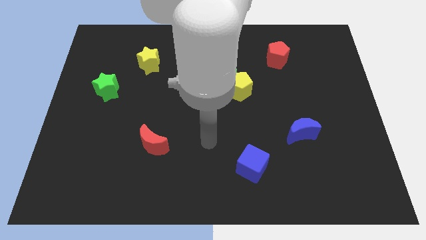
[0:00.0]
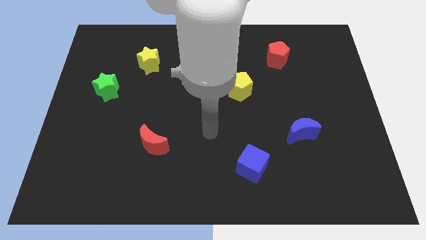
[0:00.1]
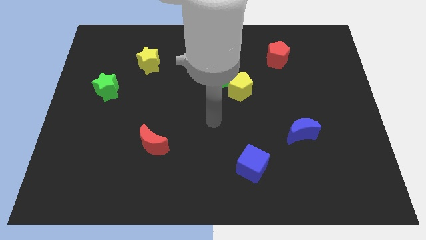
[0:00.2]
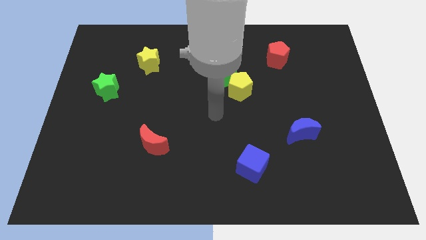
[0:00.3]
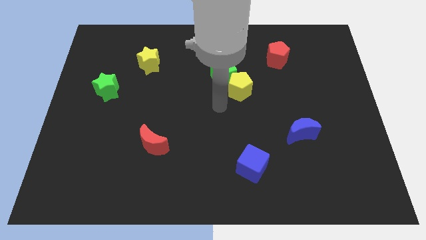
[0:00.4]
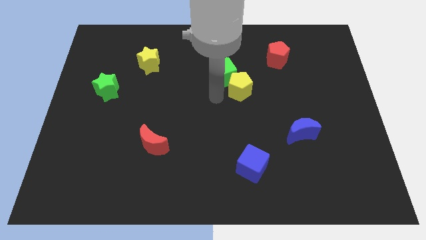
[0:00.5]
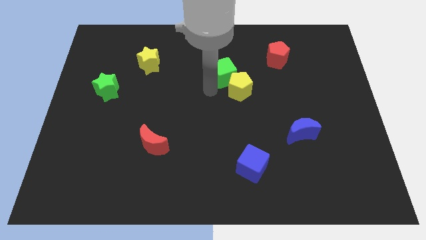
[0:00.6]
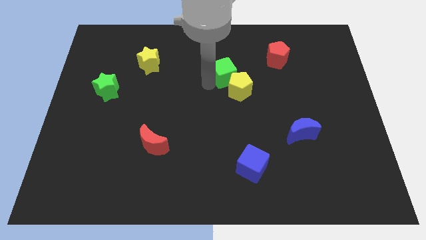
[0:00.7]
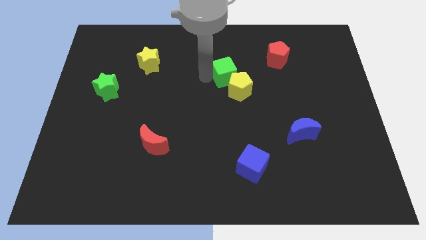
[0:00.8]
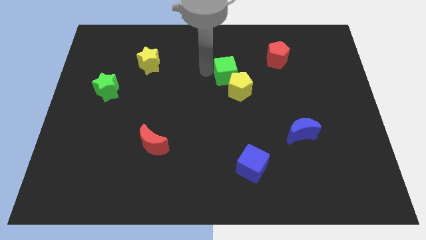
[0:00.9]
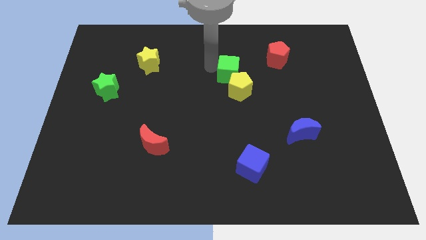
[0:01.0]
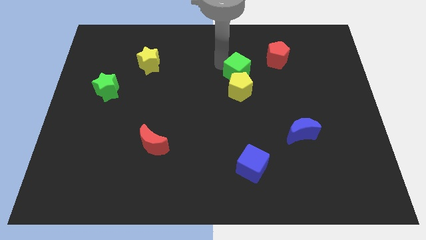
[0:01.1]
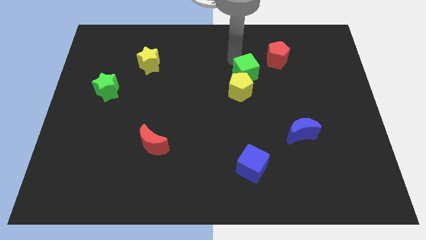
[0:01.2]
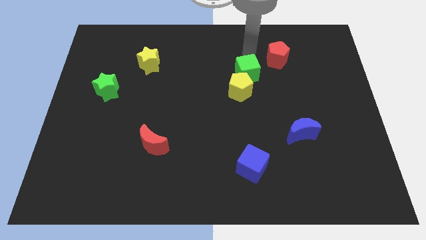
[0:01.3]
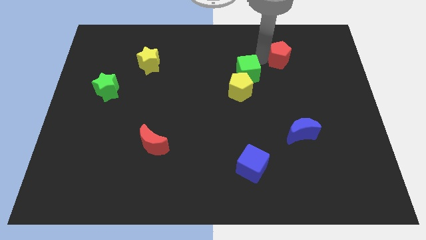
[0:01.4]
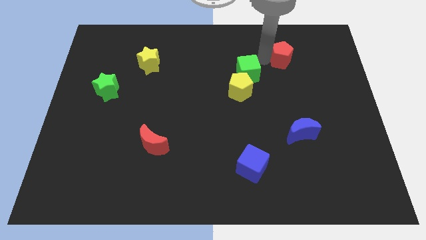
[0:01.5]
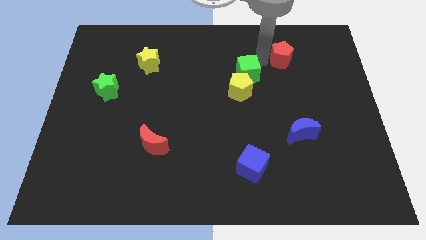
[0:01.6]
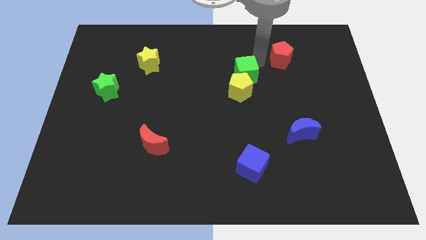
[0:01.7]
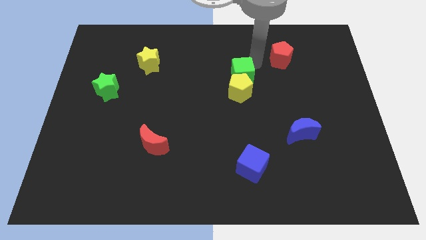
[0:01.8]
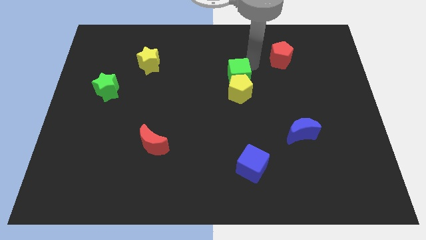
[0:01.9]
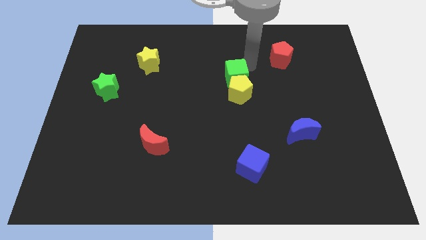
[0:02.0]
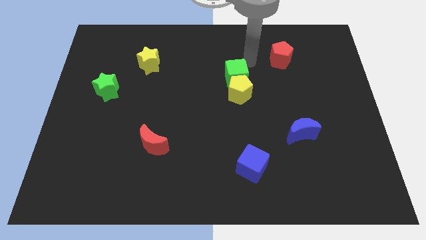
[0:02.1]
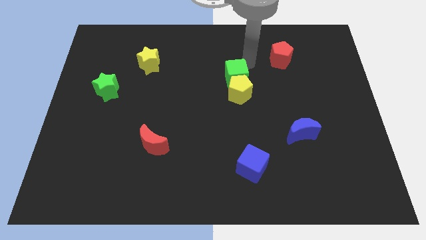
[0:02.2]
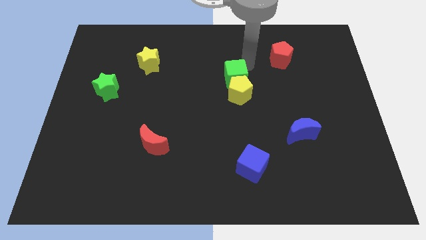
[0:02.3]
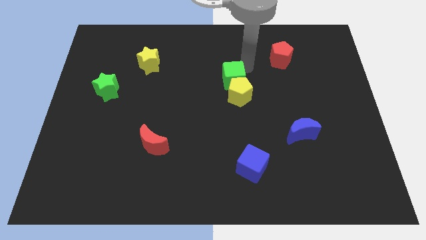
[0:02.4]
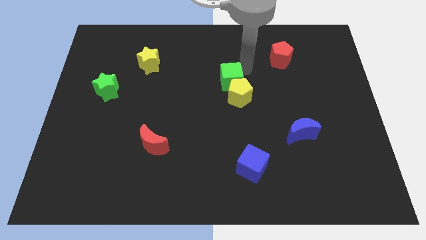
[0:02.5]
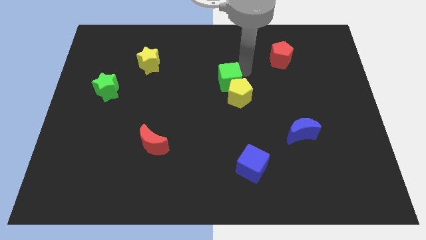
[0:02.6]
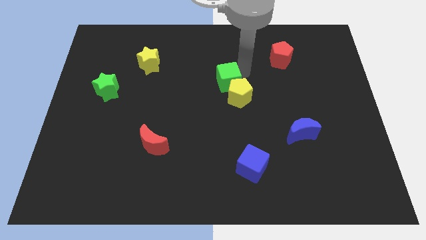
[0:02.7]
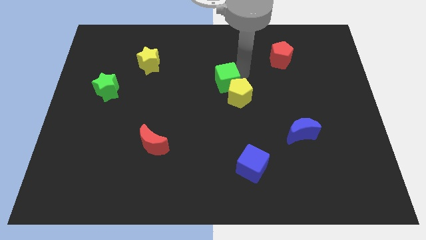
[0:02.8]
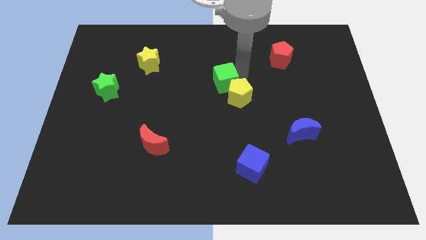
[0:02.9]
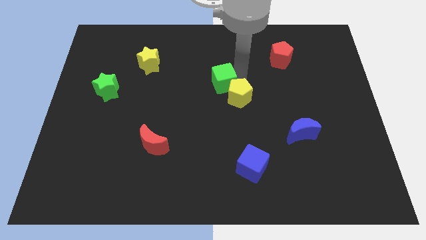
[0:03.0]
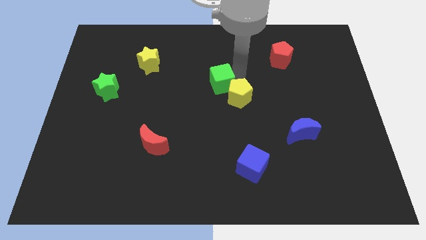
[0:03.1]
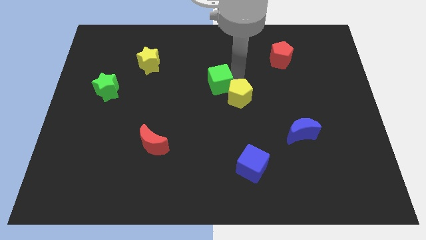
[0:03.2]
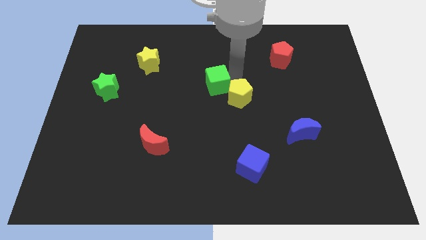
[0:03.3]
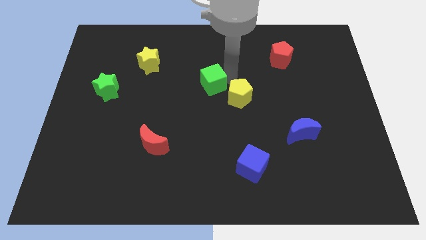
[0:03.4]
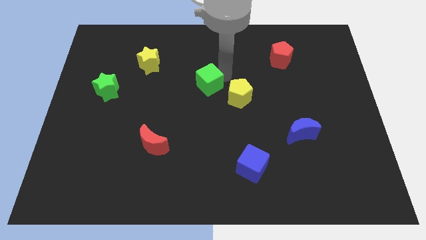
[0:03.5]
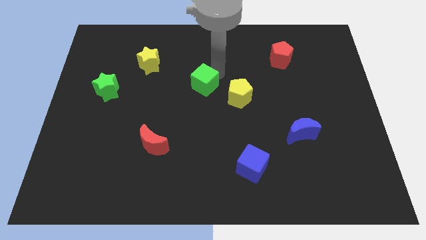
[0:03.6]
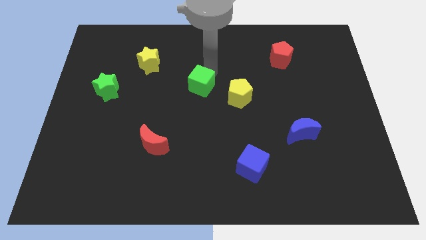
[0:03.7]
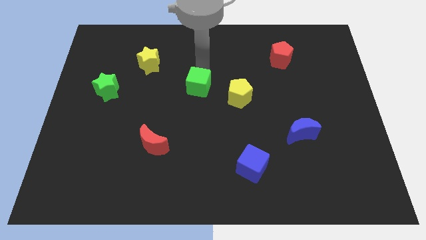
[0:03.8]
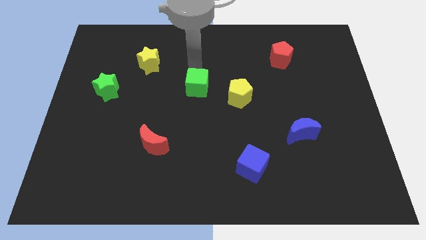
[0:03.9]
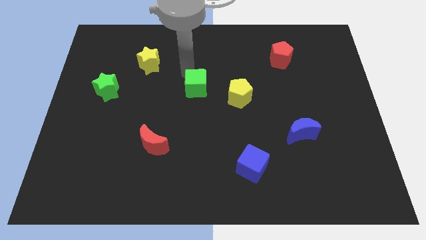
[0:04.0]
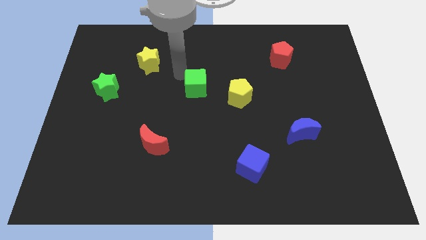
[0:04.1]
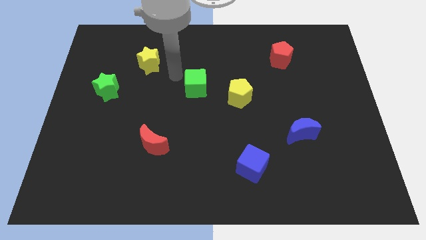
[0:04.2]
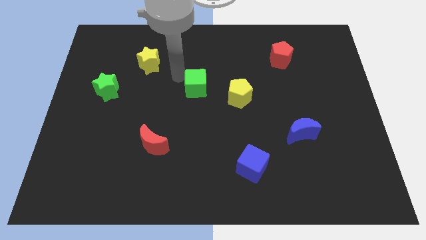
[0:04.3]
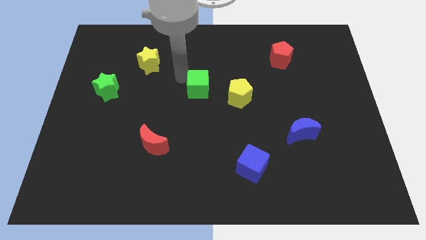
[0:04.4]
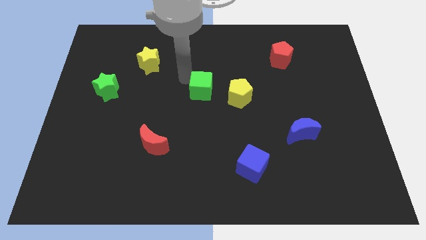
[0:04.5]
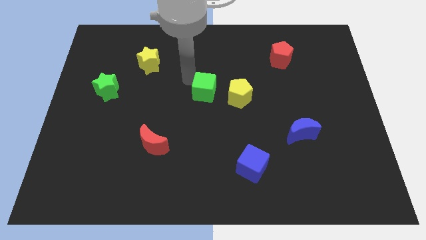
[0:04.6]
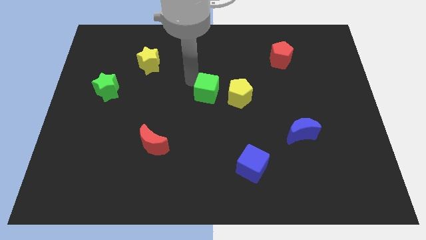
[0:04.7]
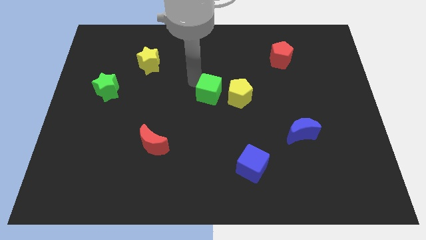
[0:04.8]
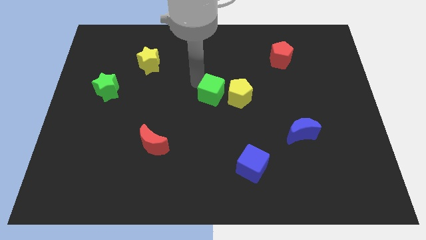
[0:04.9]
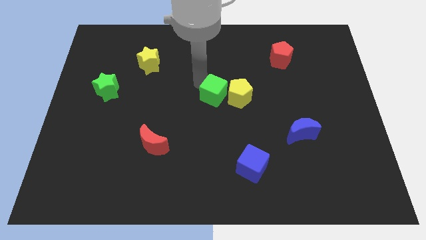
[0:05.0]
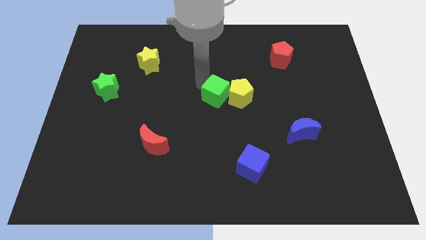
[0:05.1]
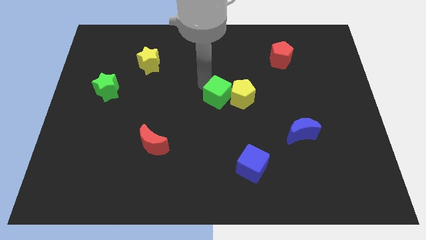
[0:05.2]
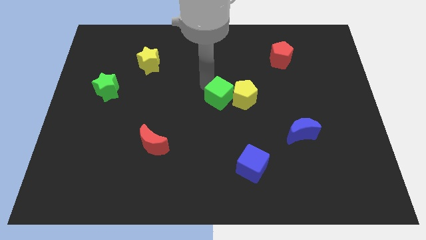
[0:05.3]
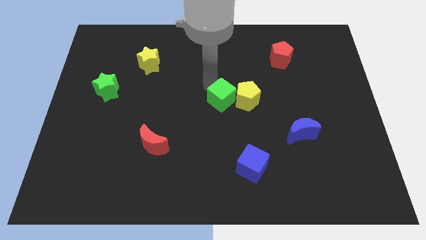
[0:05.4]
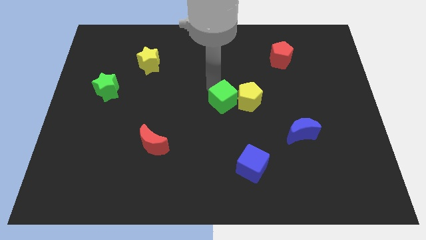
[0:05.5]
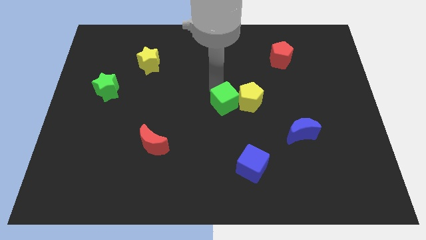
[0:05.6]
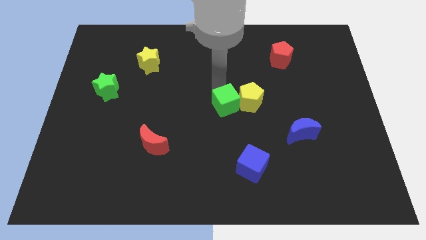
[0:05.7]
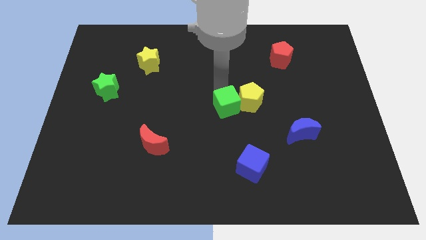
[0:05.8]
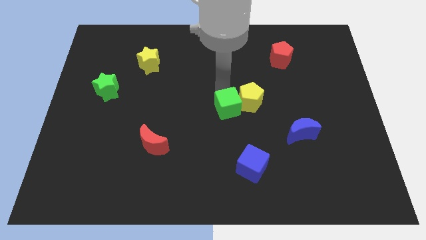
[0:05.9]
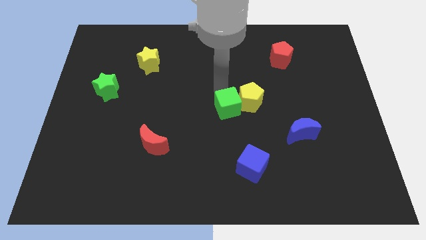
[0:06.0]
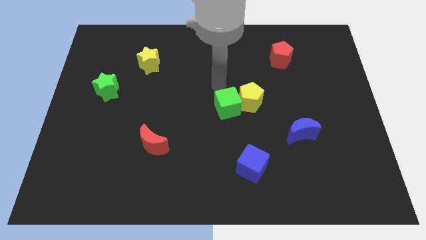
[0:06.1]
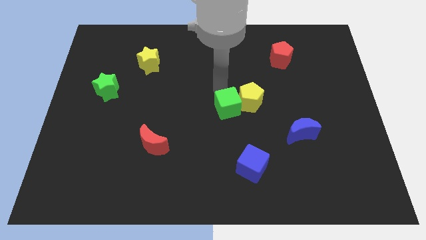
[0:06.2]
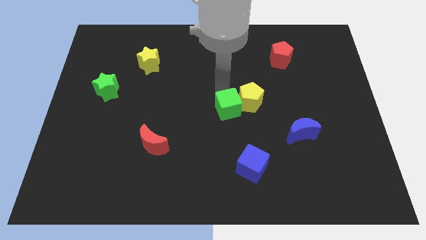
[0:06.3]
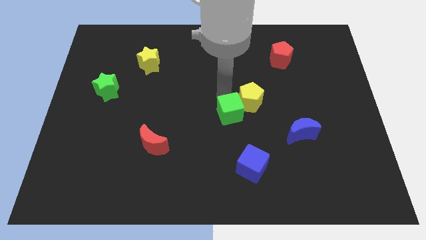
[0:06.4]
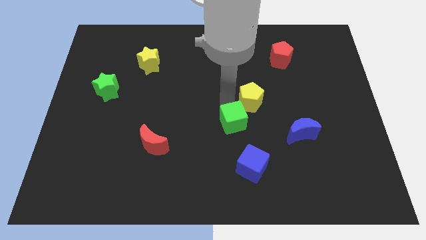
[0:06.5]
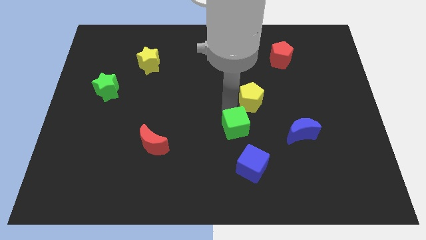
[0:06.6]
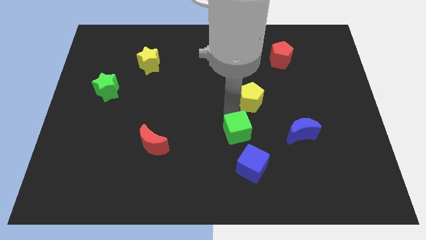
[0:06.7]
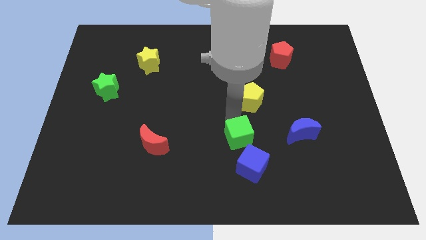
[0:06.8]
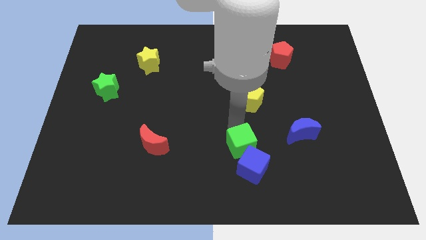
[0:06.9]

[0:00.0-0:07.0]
push the green cube next to the blue cube
